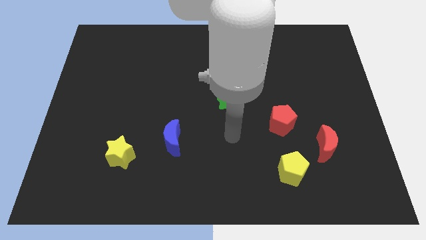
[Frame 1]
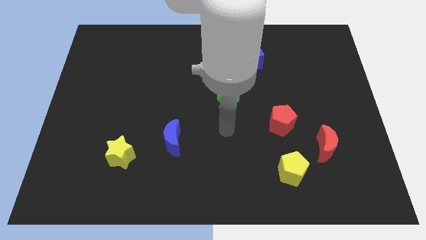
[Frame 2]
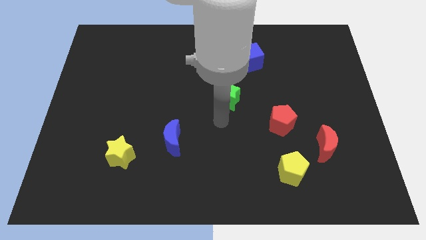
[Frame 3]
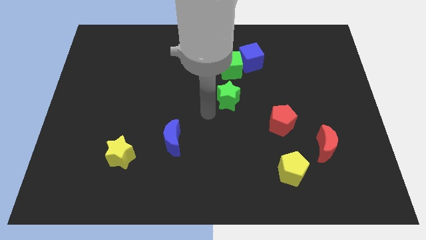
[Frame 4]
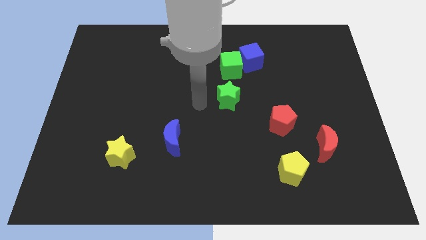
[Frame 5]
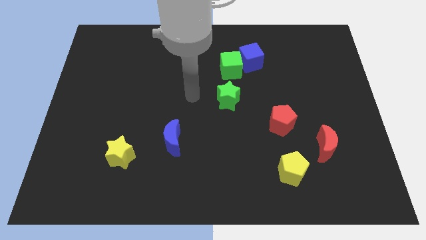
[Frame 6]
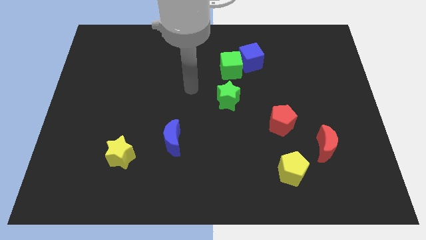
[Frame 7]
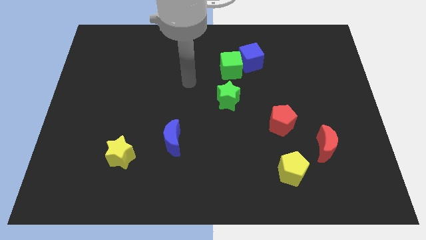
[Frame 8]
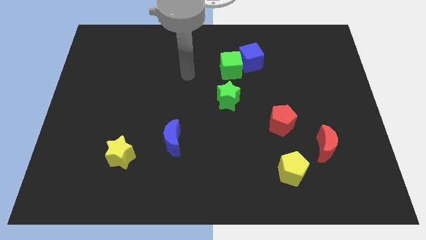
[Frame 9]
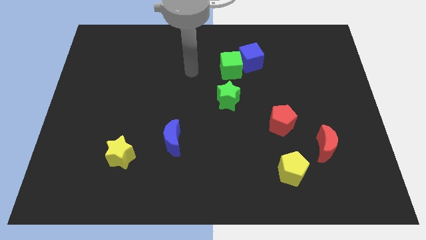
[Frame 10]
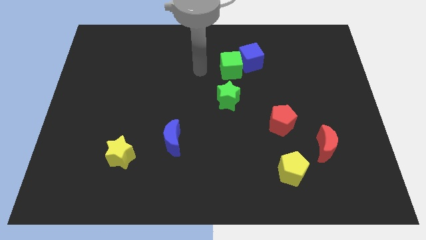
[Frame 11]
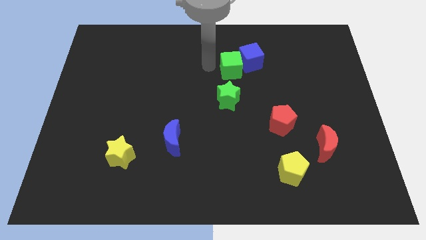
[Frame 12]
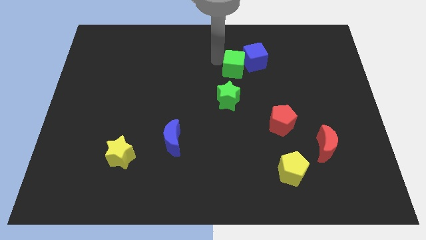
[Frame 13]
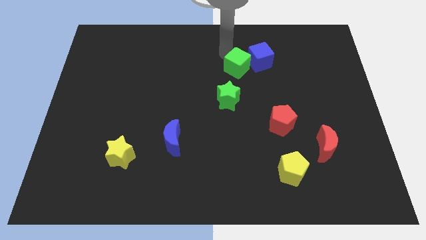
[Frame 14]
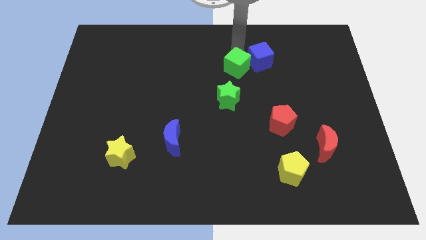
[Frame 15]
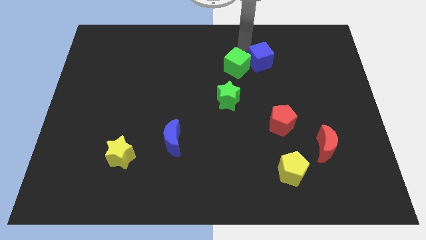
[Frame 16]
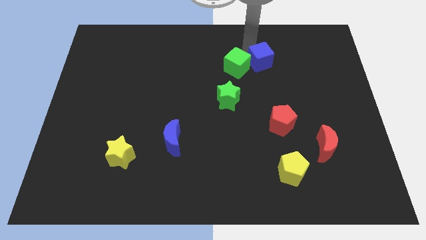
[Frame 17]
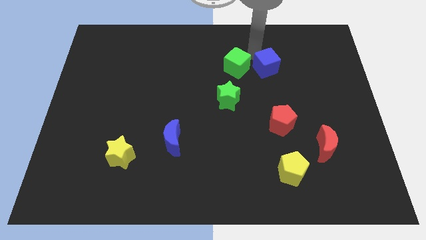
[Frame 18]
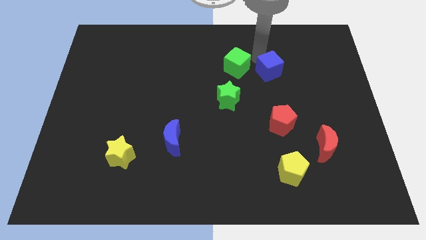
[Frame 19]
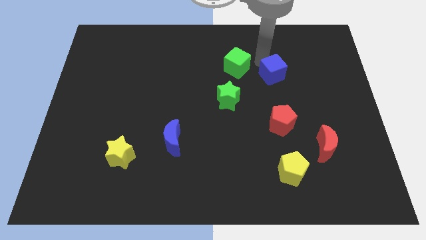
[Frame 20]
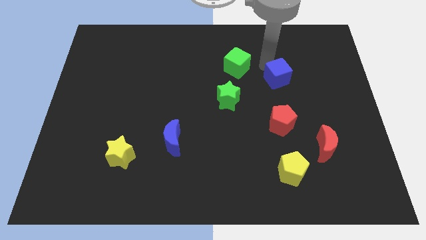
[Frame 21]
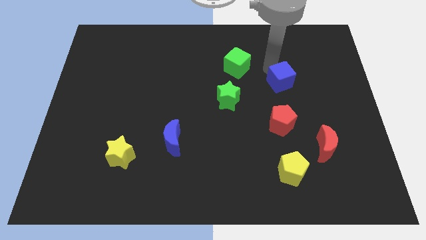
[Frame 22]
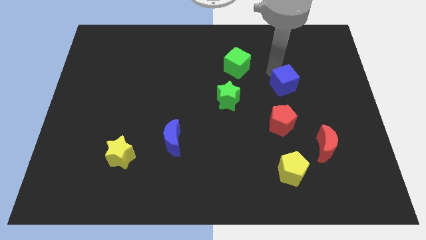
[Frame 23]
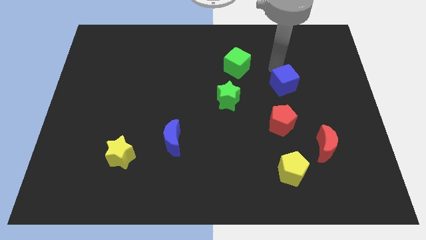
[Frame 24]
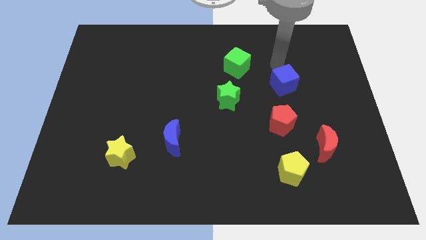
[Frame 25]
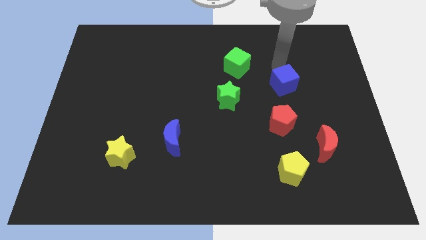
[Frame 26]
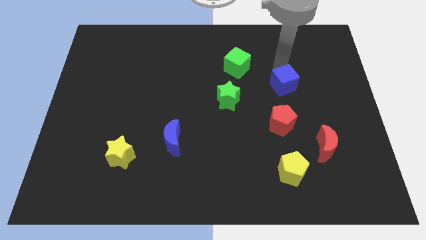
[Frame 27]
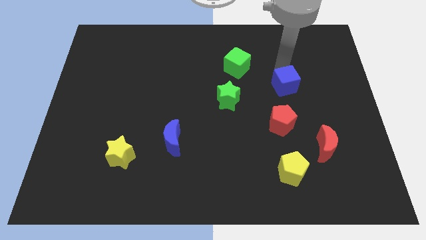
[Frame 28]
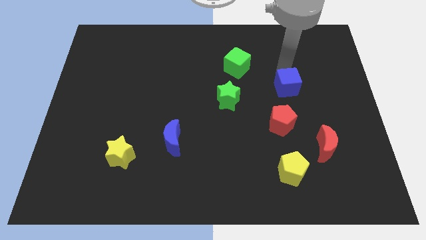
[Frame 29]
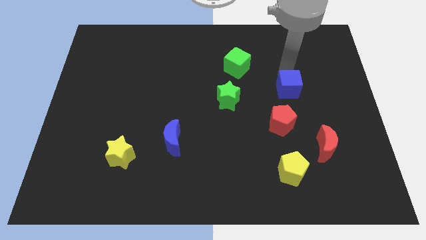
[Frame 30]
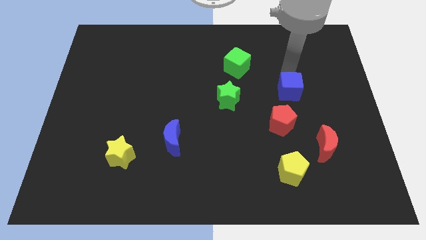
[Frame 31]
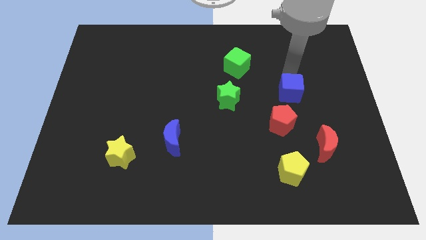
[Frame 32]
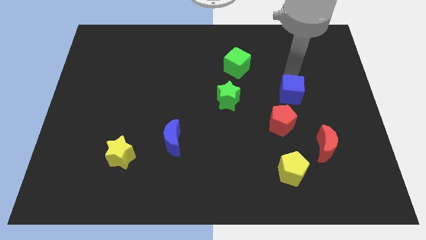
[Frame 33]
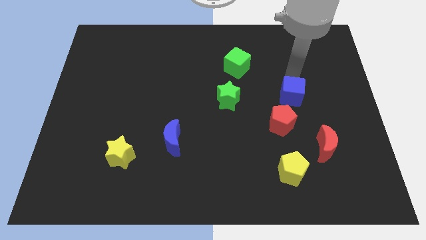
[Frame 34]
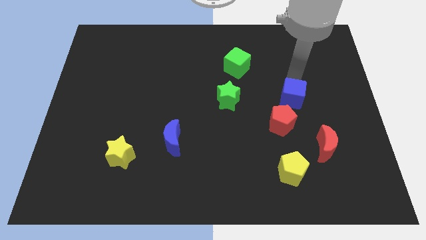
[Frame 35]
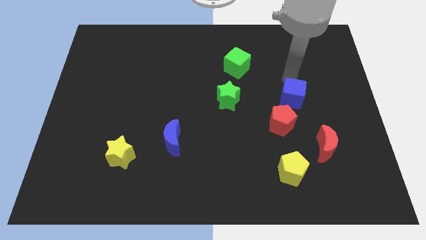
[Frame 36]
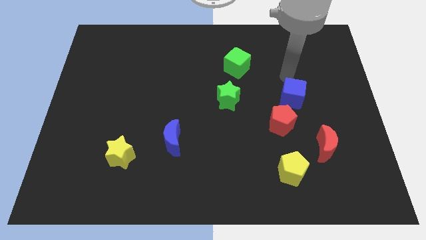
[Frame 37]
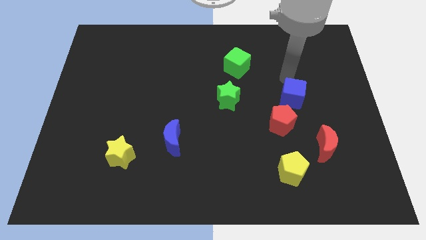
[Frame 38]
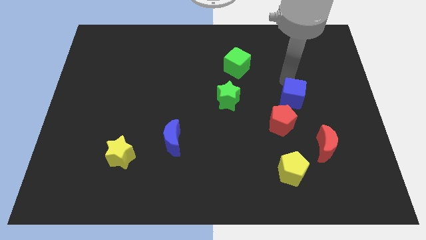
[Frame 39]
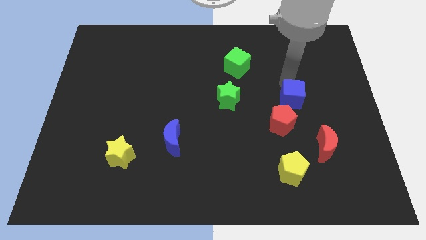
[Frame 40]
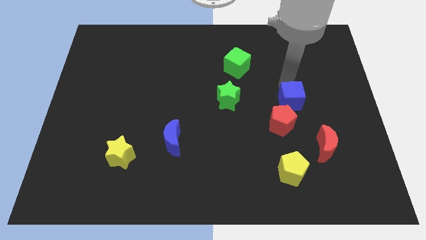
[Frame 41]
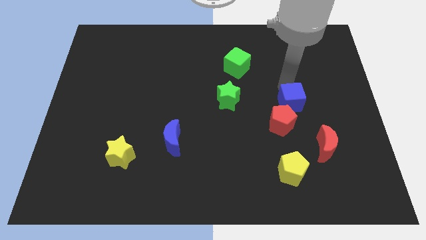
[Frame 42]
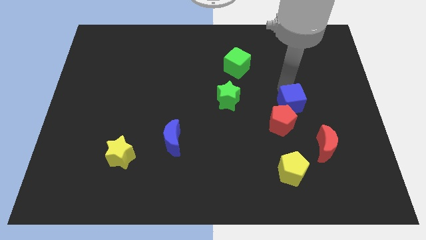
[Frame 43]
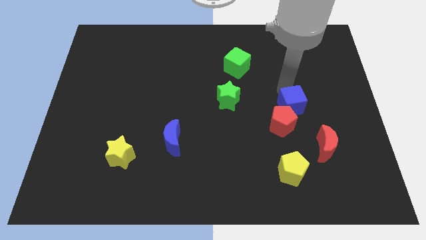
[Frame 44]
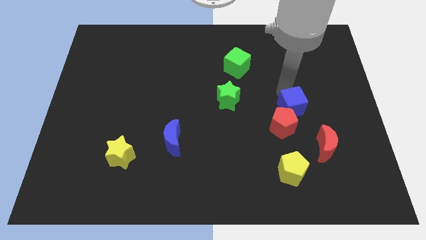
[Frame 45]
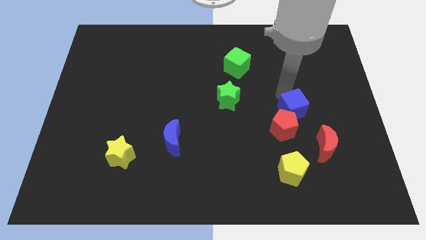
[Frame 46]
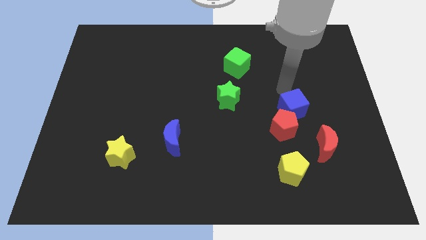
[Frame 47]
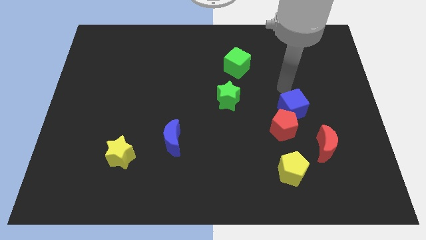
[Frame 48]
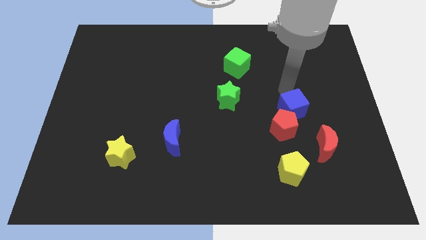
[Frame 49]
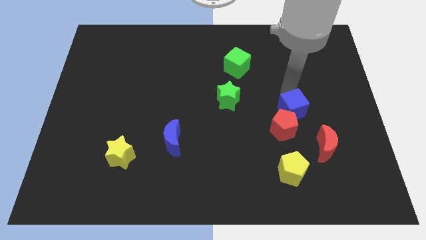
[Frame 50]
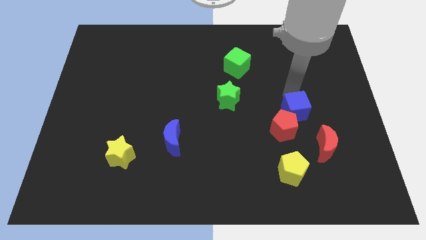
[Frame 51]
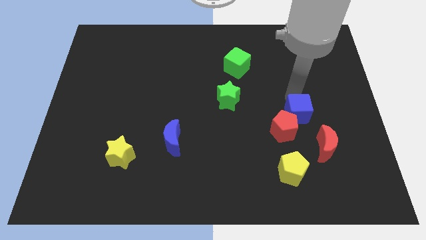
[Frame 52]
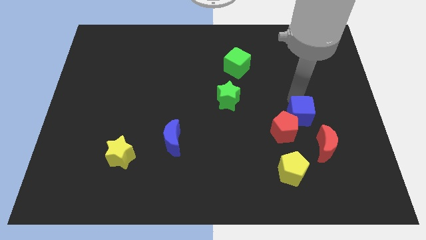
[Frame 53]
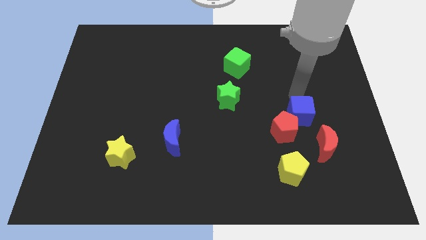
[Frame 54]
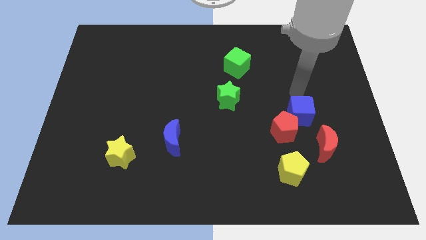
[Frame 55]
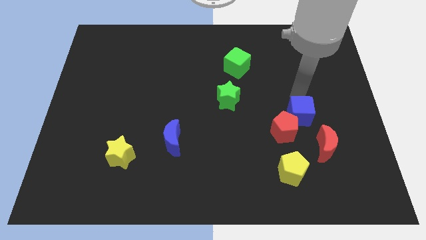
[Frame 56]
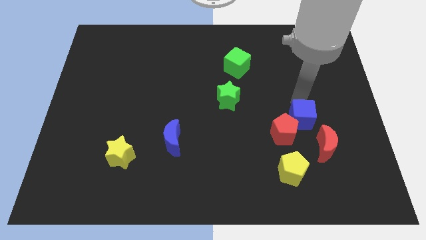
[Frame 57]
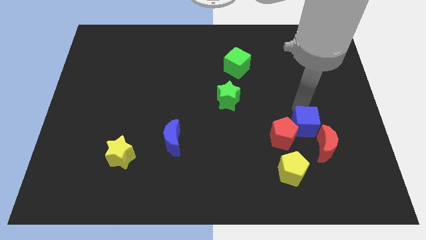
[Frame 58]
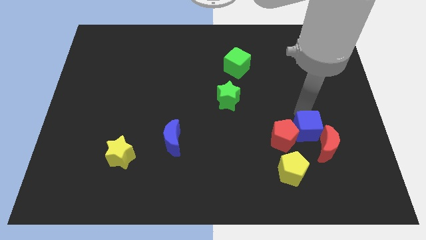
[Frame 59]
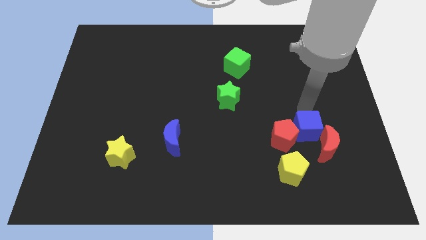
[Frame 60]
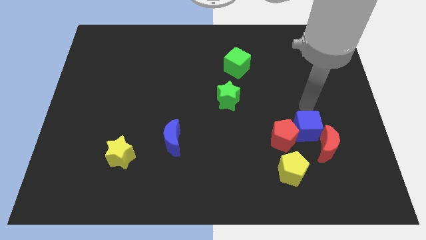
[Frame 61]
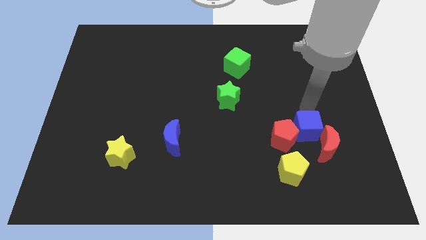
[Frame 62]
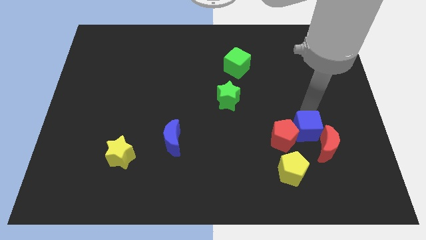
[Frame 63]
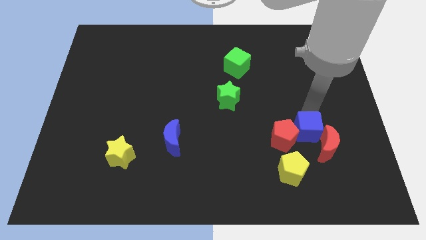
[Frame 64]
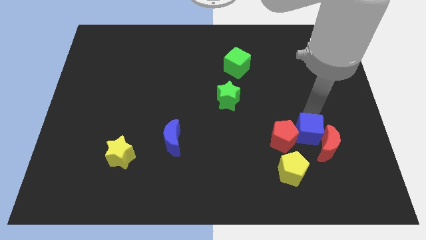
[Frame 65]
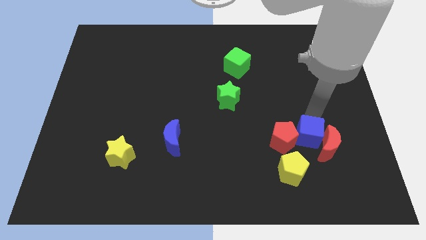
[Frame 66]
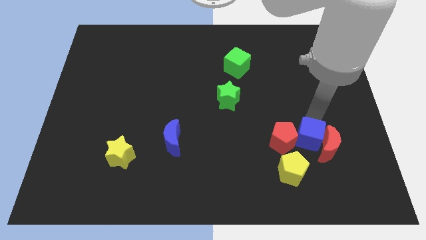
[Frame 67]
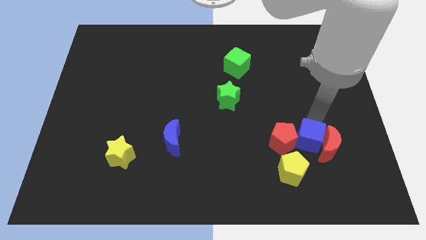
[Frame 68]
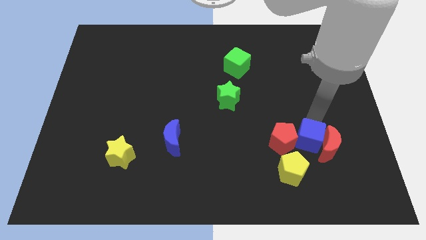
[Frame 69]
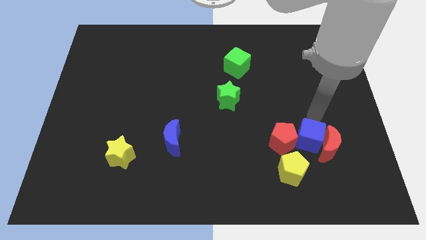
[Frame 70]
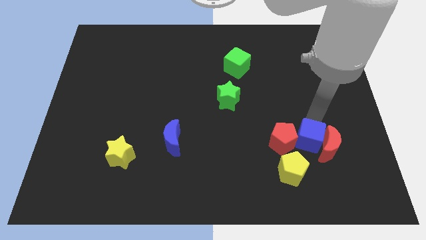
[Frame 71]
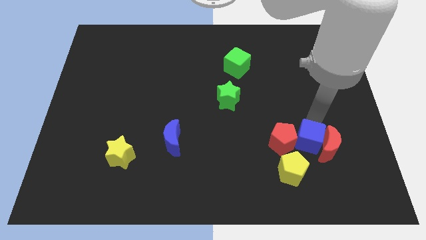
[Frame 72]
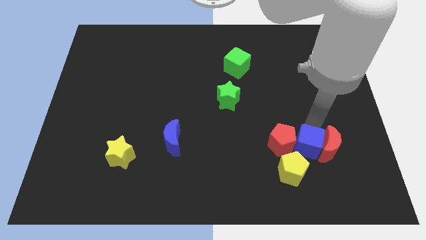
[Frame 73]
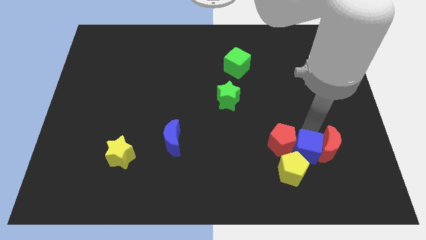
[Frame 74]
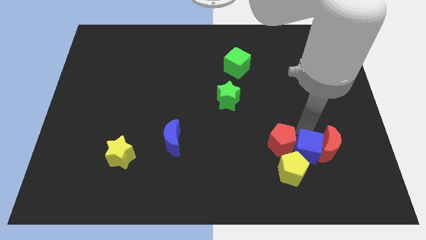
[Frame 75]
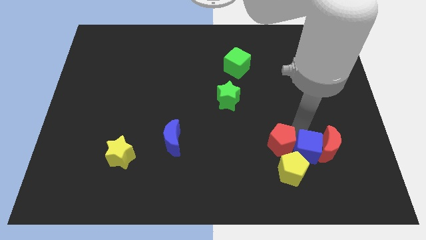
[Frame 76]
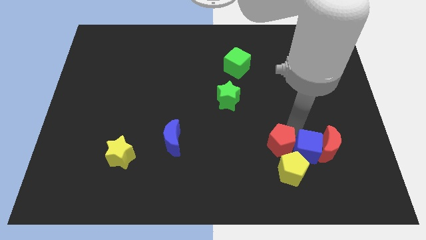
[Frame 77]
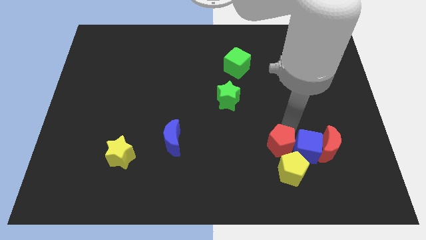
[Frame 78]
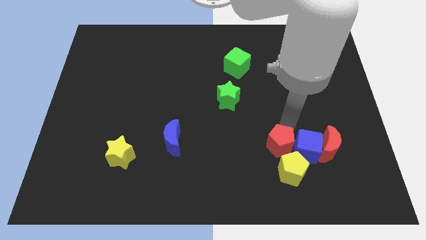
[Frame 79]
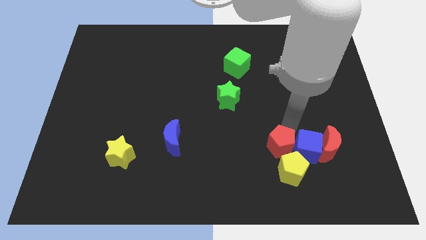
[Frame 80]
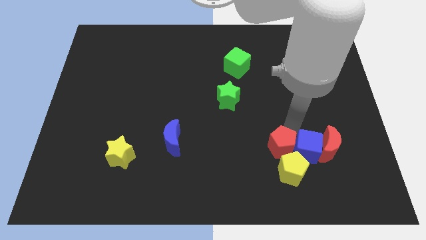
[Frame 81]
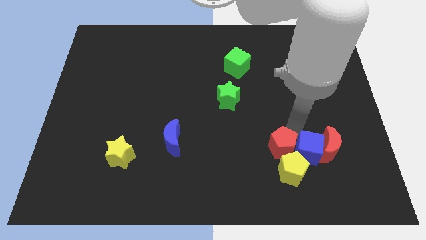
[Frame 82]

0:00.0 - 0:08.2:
push the blue cube to the right side of the yellow pentagon
